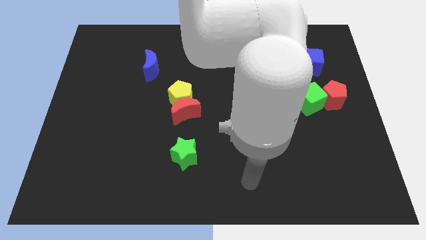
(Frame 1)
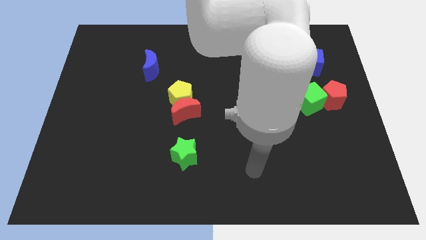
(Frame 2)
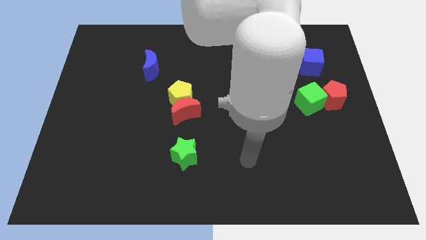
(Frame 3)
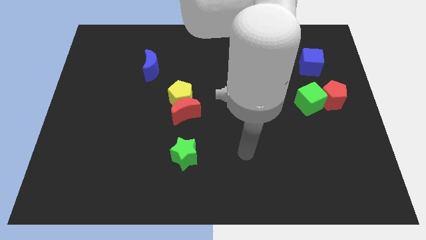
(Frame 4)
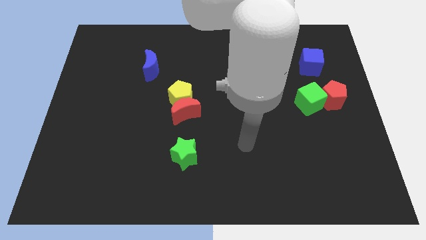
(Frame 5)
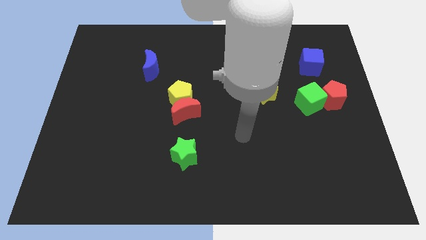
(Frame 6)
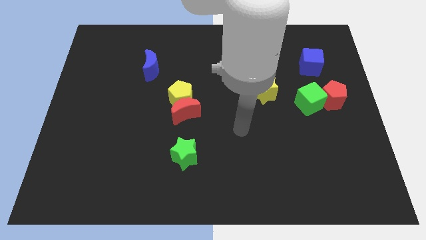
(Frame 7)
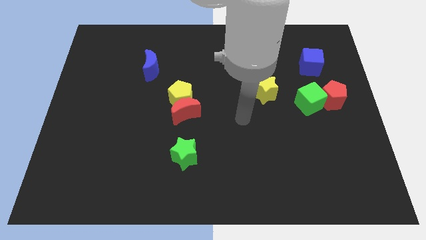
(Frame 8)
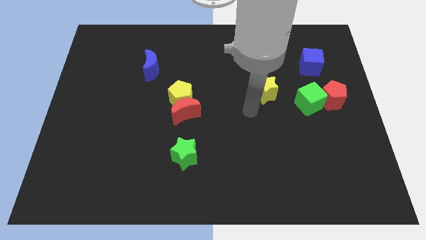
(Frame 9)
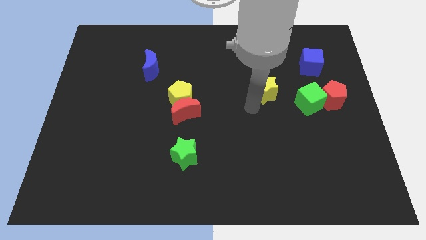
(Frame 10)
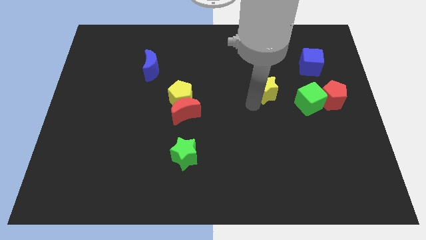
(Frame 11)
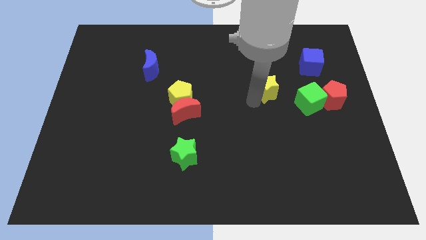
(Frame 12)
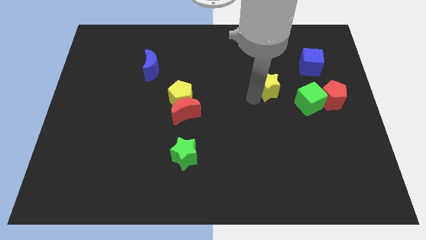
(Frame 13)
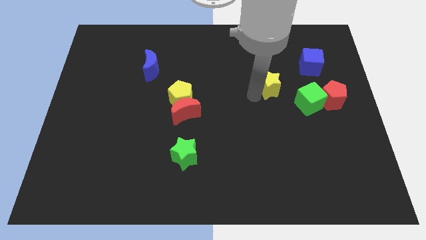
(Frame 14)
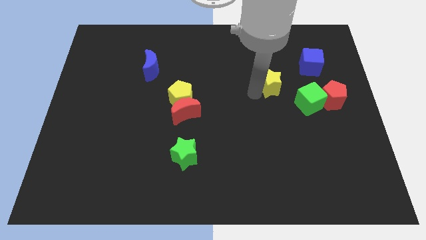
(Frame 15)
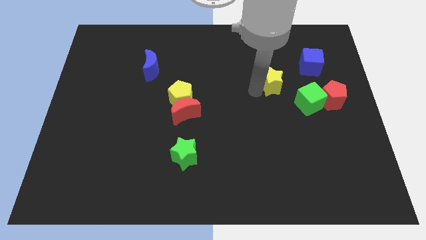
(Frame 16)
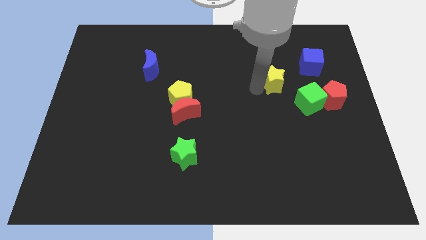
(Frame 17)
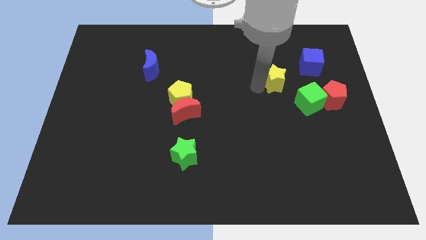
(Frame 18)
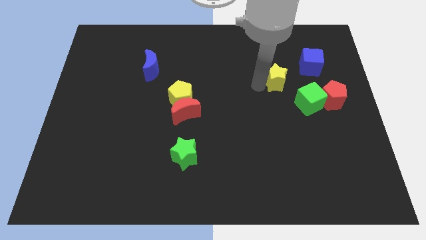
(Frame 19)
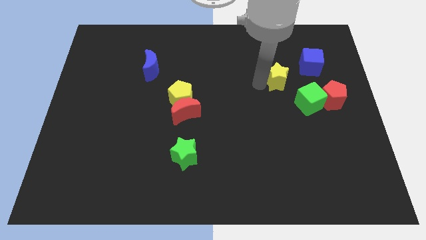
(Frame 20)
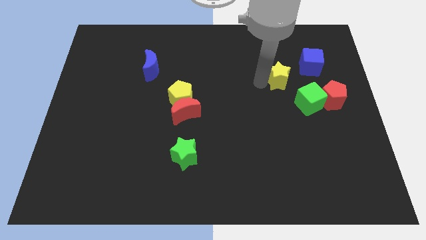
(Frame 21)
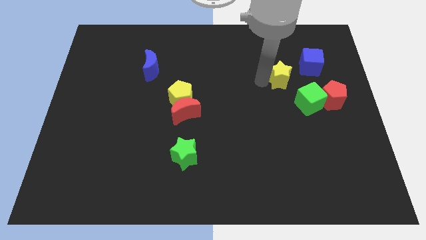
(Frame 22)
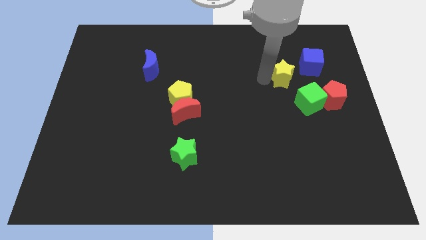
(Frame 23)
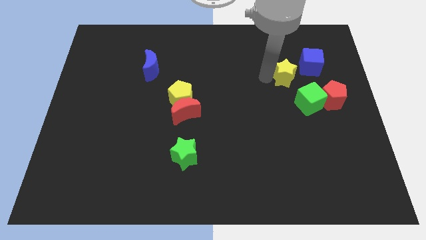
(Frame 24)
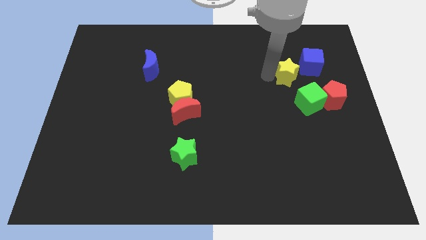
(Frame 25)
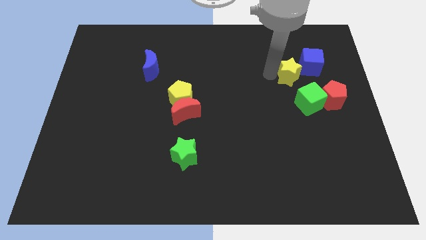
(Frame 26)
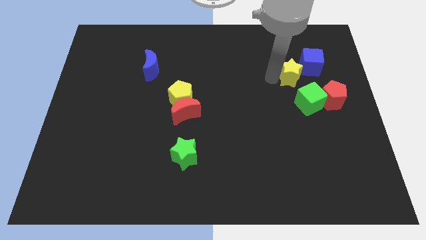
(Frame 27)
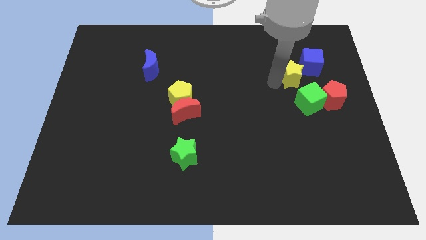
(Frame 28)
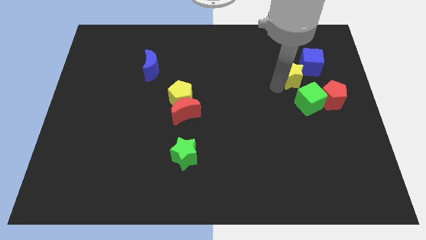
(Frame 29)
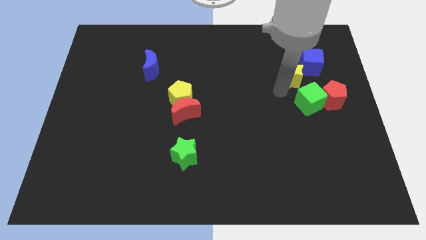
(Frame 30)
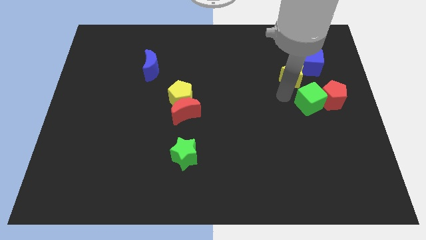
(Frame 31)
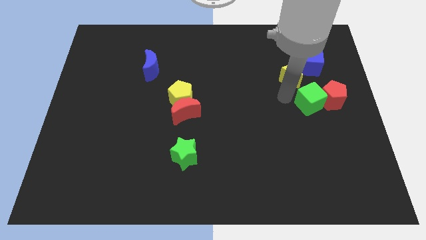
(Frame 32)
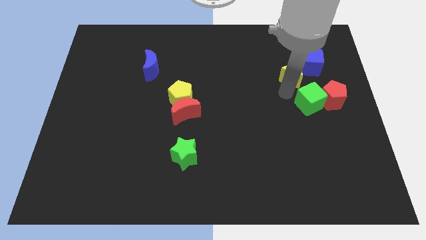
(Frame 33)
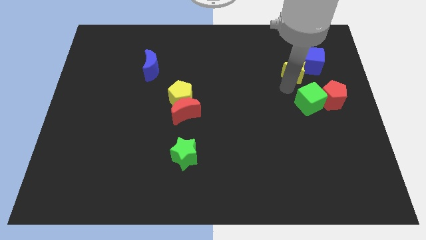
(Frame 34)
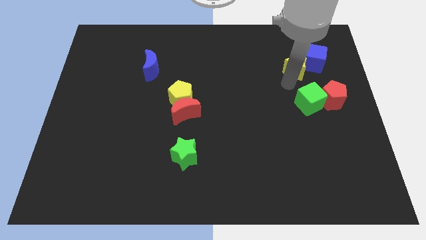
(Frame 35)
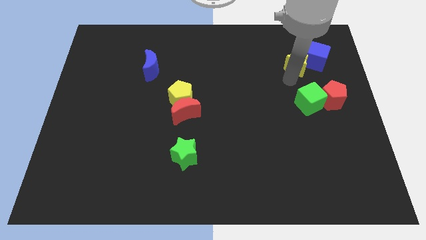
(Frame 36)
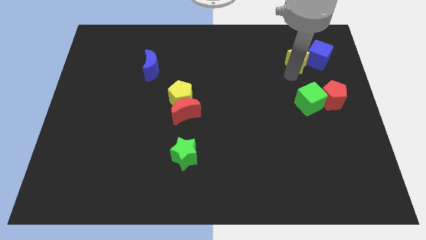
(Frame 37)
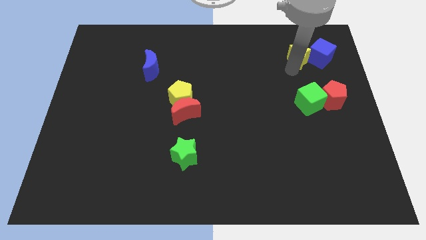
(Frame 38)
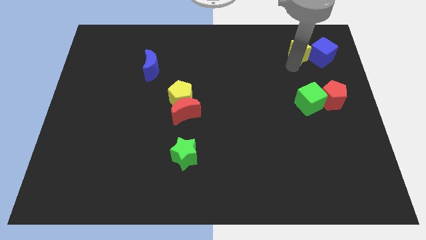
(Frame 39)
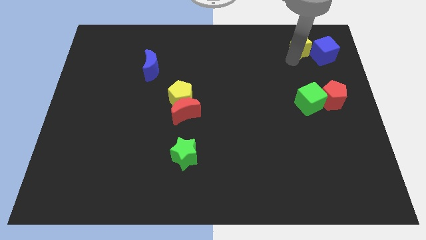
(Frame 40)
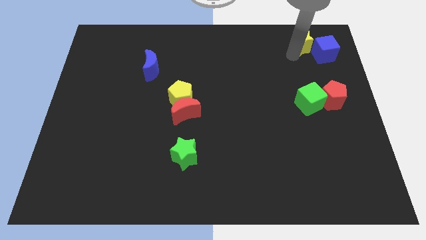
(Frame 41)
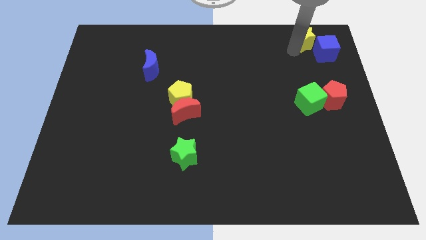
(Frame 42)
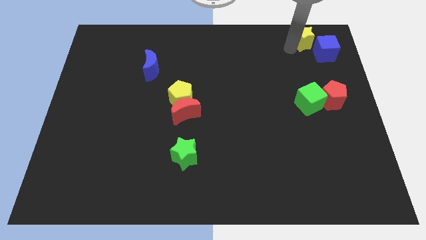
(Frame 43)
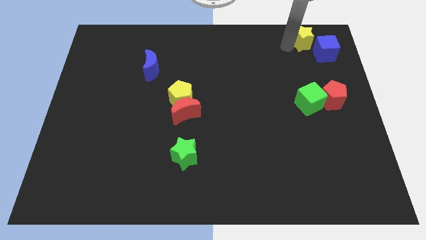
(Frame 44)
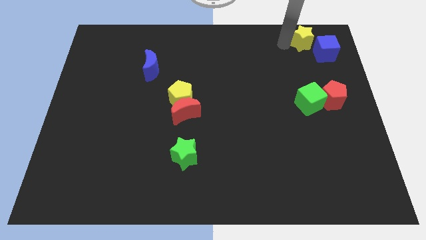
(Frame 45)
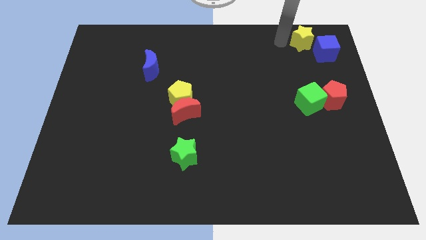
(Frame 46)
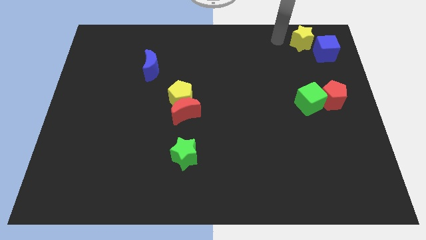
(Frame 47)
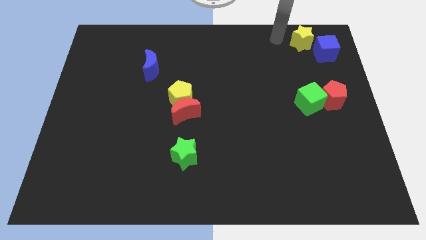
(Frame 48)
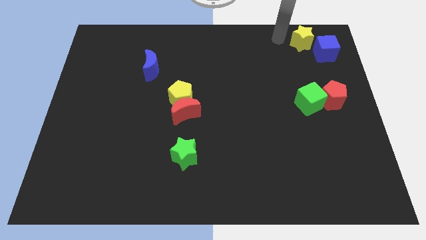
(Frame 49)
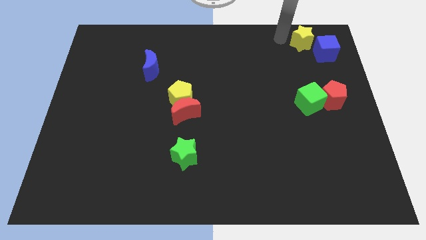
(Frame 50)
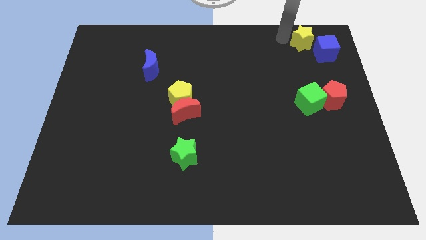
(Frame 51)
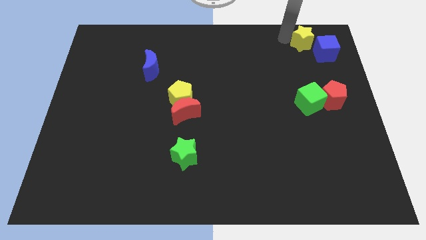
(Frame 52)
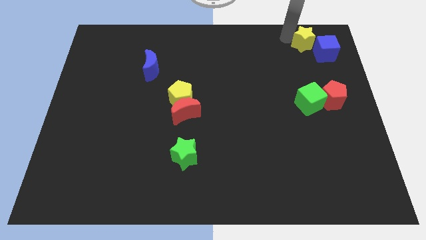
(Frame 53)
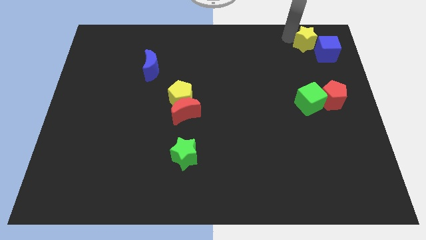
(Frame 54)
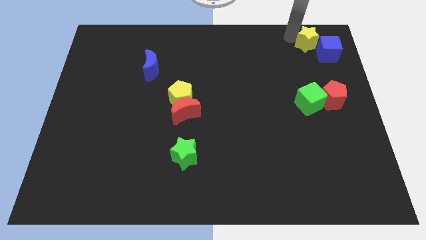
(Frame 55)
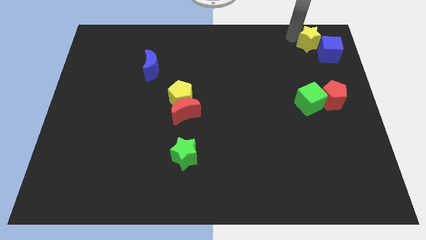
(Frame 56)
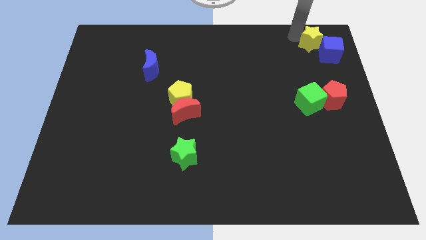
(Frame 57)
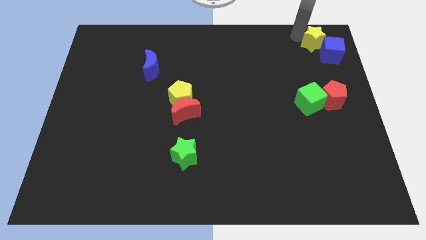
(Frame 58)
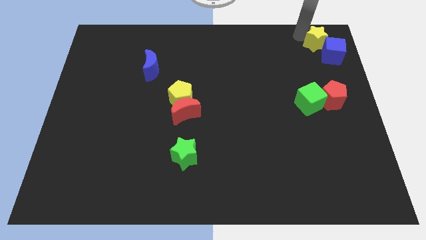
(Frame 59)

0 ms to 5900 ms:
put the yellow star to the top right

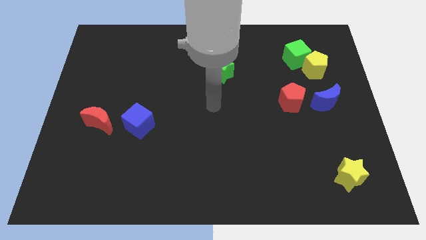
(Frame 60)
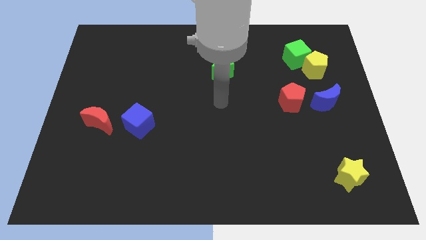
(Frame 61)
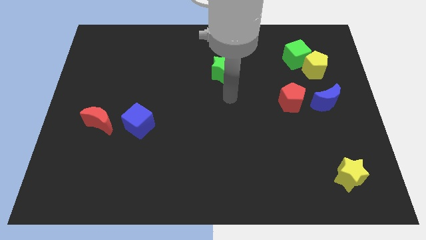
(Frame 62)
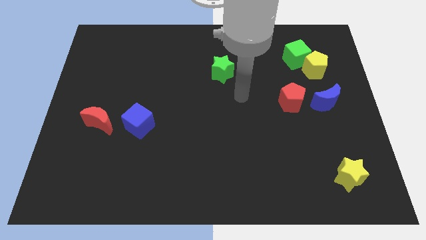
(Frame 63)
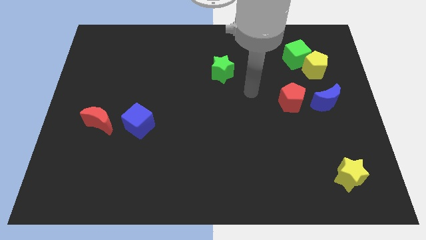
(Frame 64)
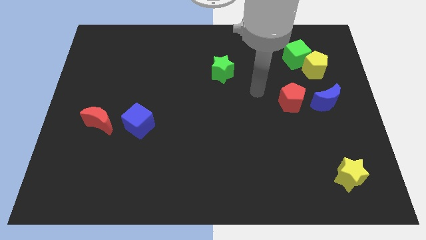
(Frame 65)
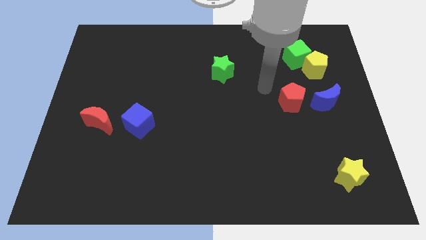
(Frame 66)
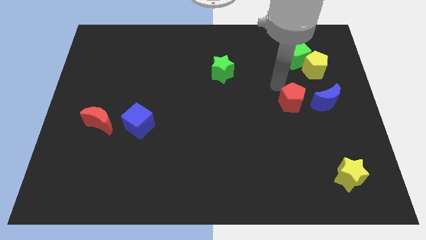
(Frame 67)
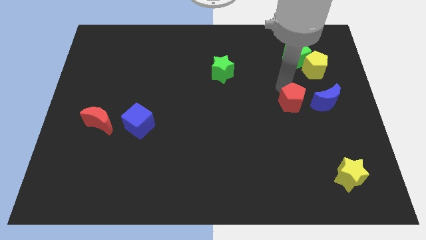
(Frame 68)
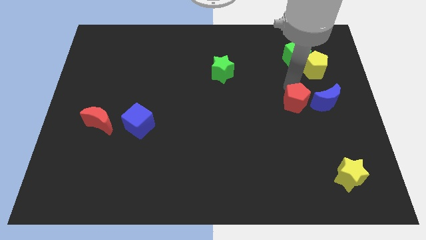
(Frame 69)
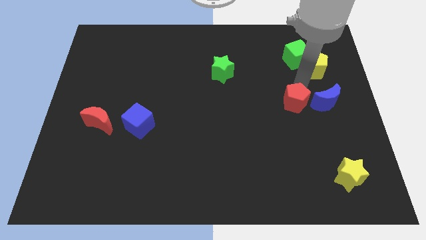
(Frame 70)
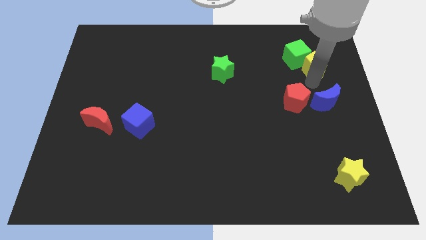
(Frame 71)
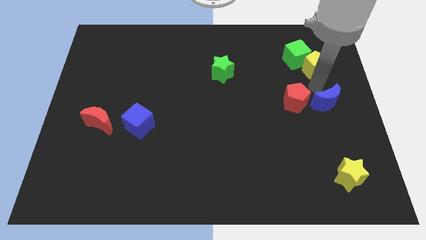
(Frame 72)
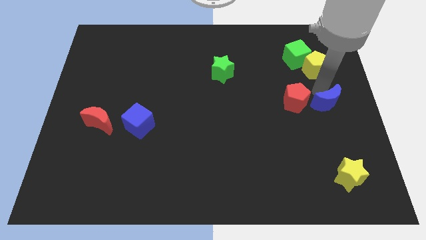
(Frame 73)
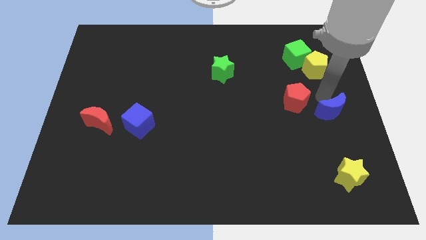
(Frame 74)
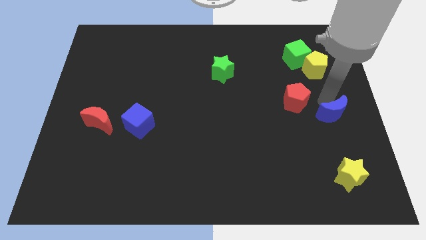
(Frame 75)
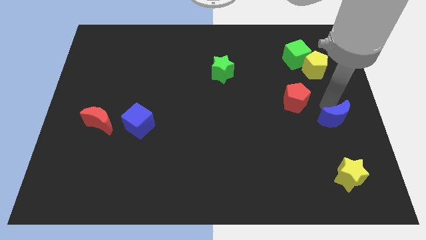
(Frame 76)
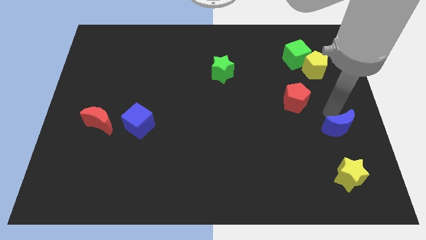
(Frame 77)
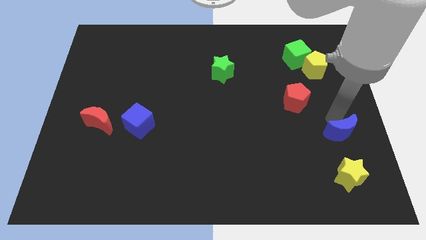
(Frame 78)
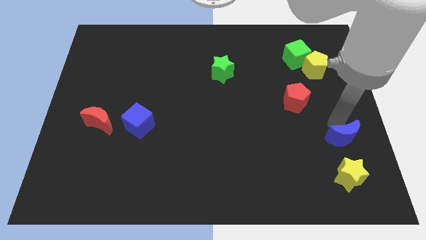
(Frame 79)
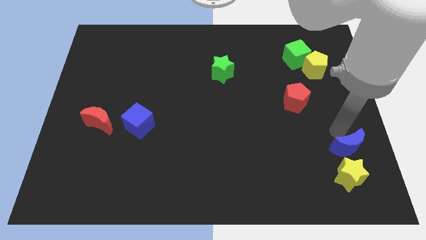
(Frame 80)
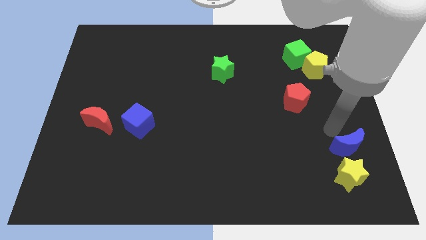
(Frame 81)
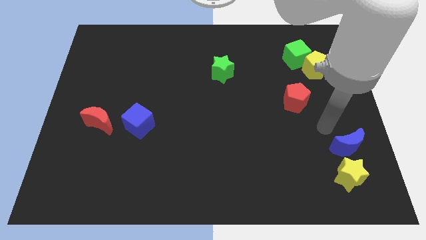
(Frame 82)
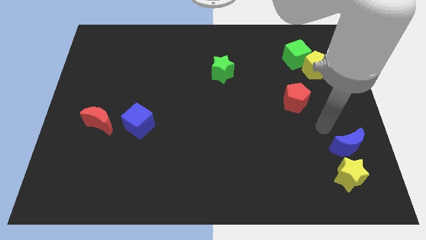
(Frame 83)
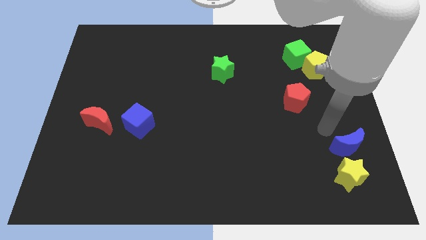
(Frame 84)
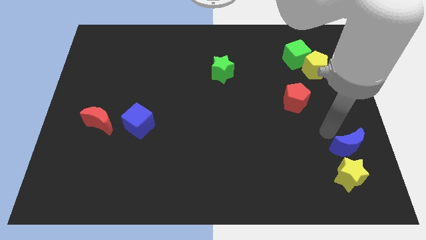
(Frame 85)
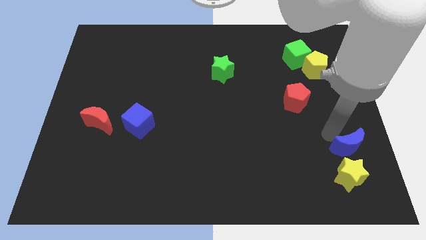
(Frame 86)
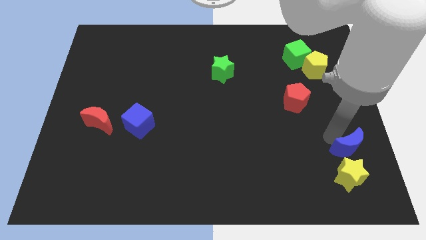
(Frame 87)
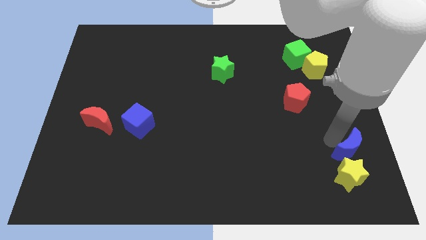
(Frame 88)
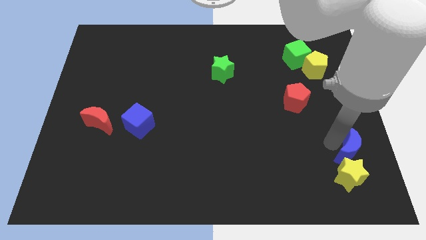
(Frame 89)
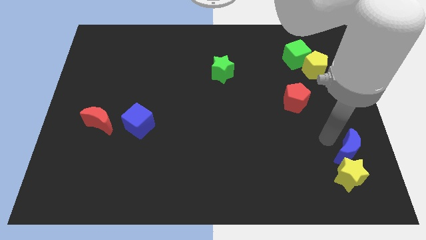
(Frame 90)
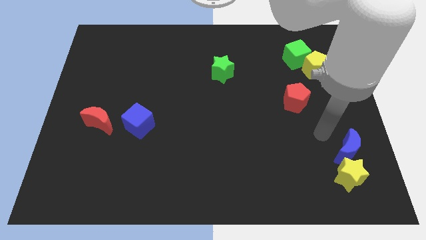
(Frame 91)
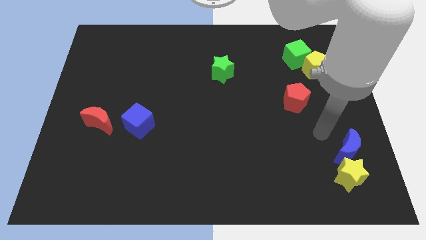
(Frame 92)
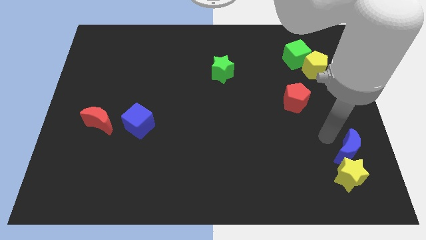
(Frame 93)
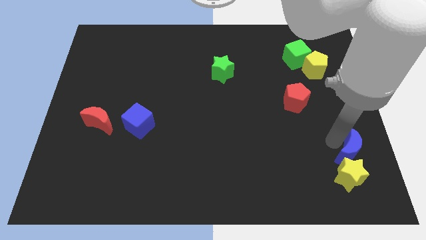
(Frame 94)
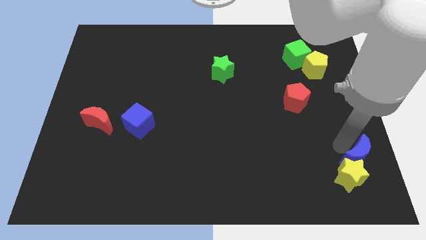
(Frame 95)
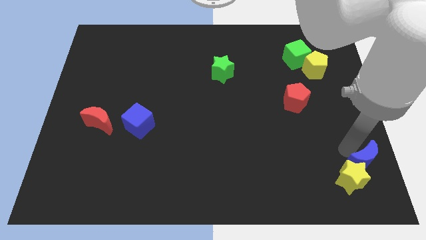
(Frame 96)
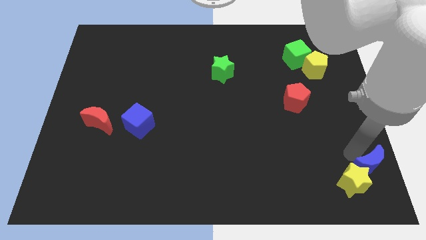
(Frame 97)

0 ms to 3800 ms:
move the blue moon to the bottom right
